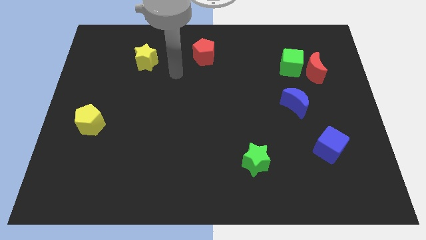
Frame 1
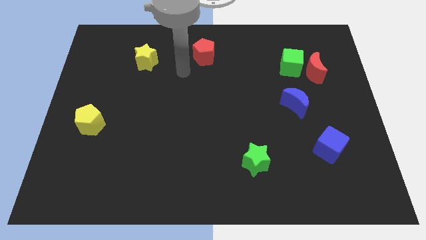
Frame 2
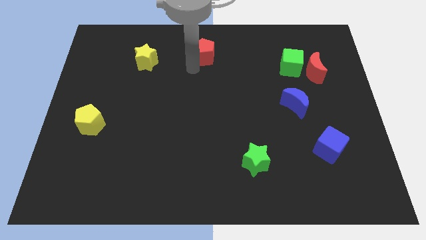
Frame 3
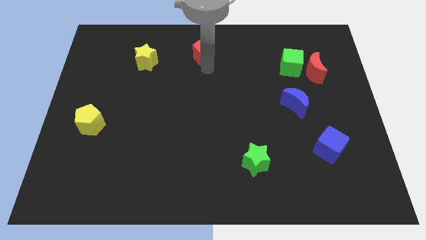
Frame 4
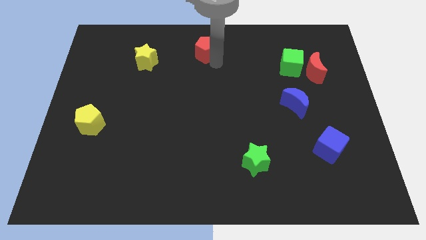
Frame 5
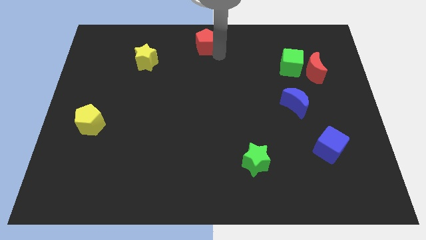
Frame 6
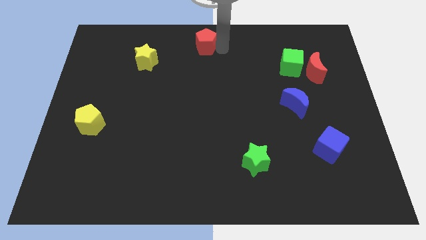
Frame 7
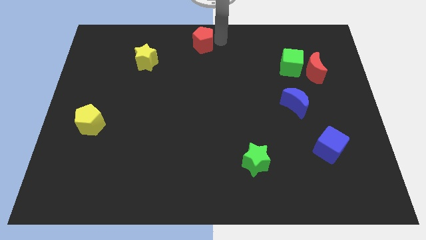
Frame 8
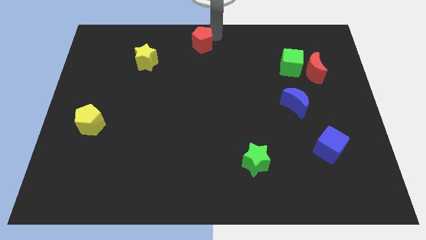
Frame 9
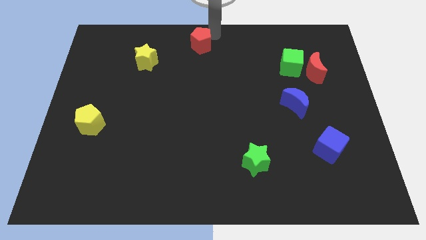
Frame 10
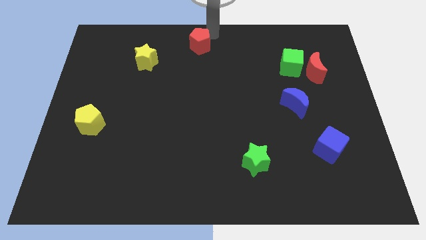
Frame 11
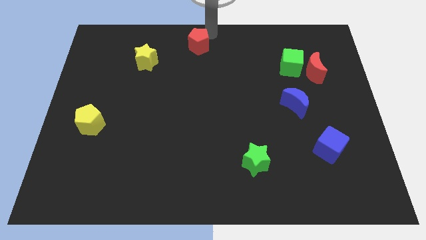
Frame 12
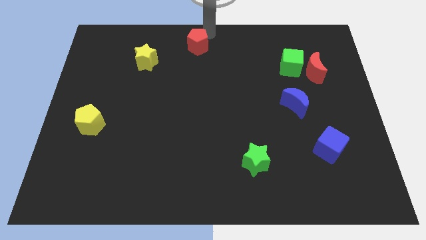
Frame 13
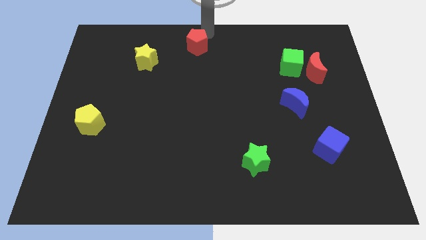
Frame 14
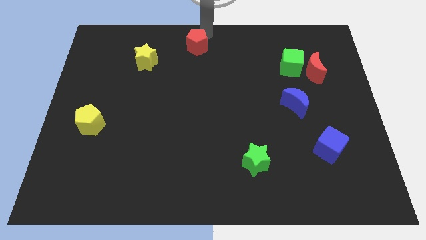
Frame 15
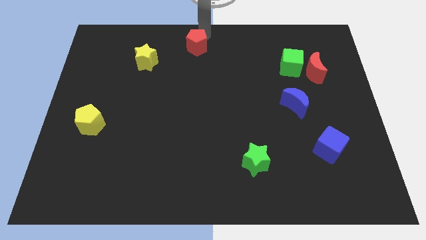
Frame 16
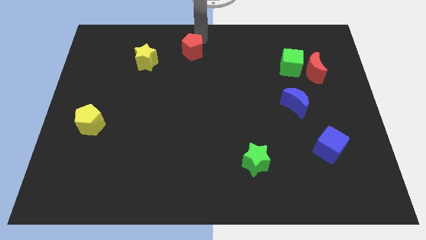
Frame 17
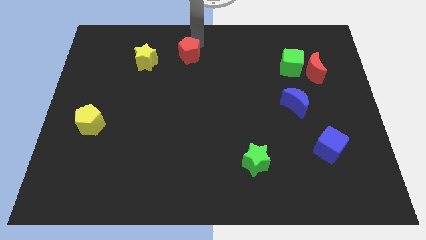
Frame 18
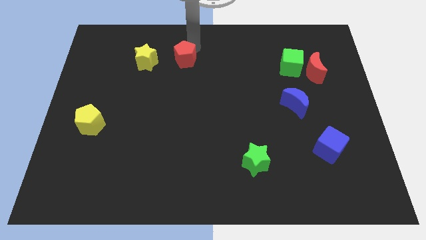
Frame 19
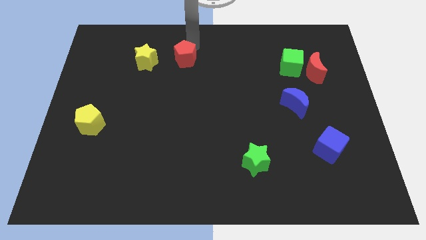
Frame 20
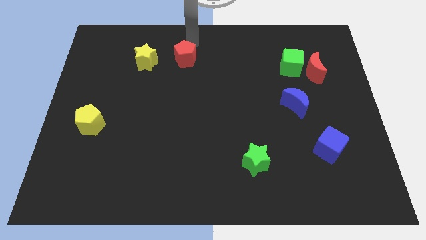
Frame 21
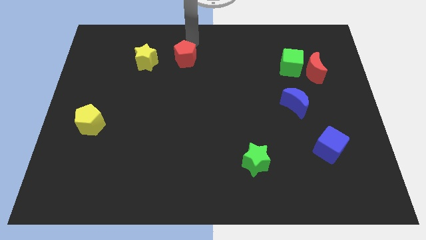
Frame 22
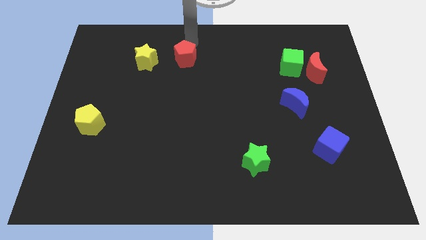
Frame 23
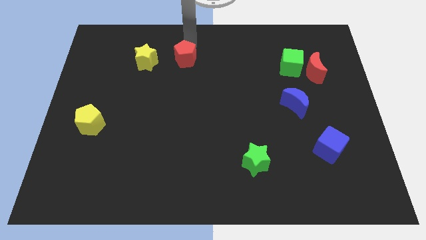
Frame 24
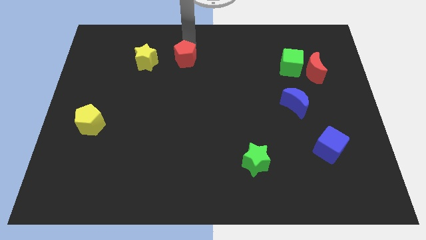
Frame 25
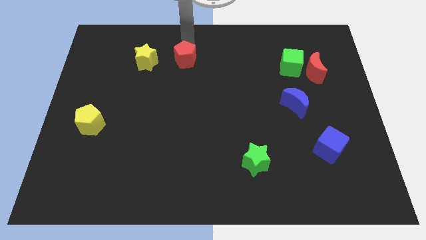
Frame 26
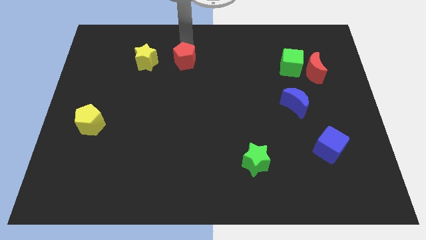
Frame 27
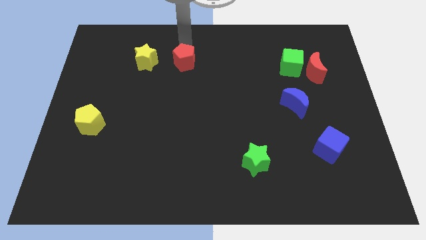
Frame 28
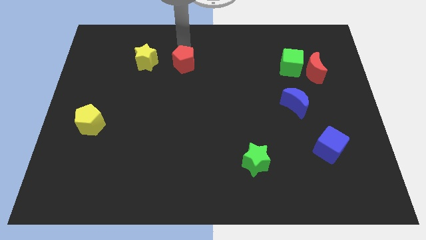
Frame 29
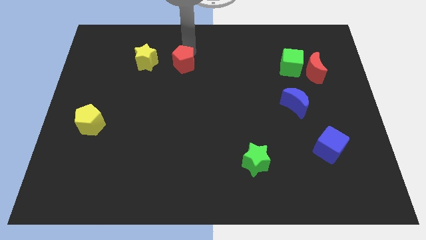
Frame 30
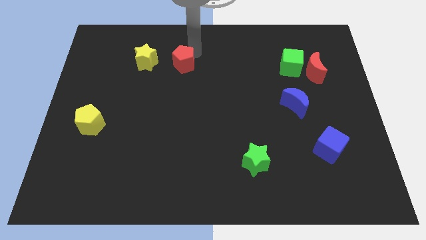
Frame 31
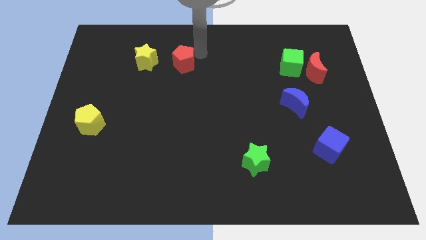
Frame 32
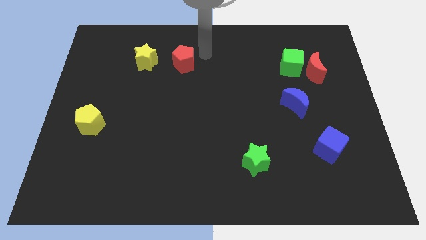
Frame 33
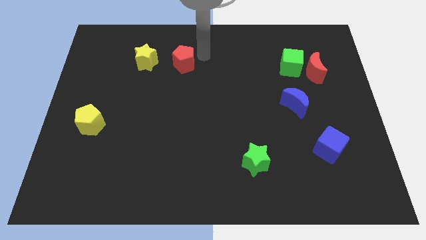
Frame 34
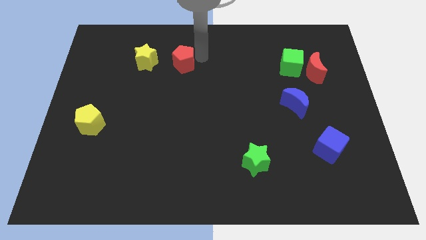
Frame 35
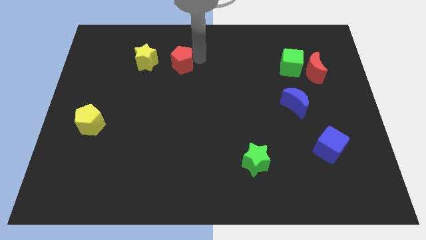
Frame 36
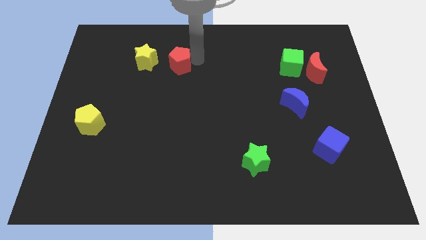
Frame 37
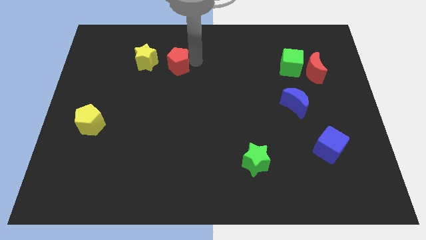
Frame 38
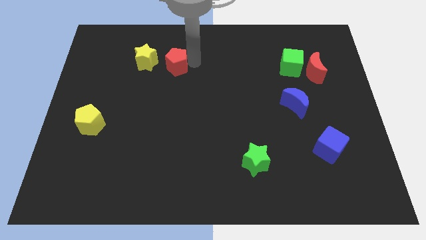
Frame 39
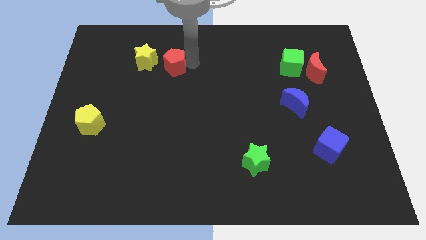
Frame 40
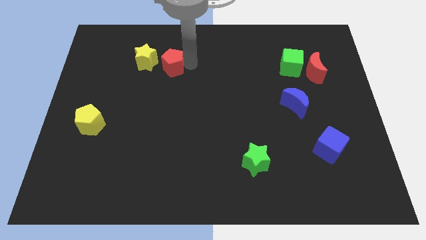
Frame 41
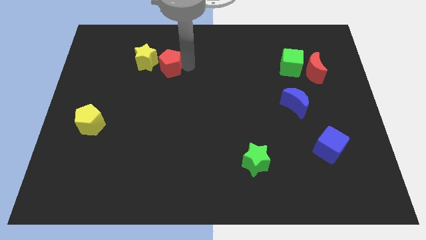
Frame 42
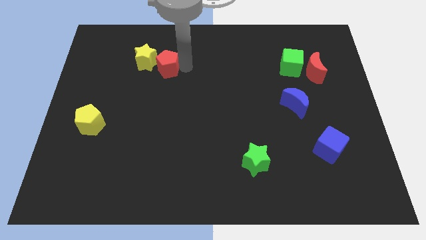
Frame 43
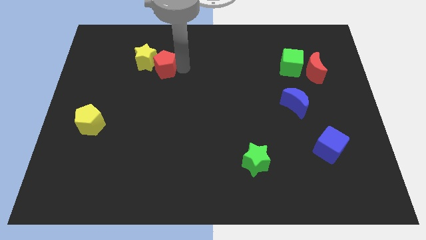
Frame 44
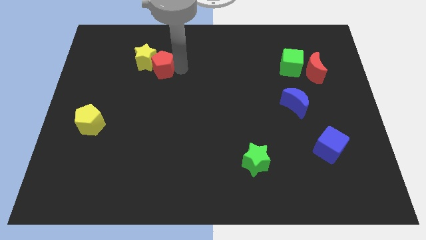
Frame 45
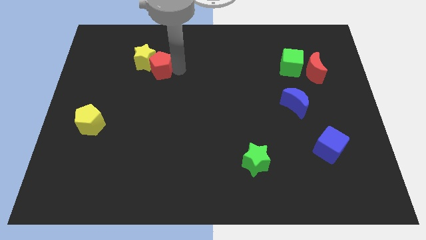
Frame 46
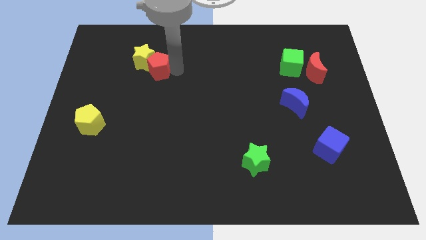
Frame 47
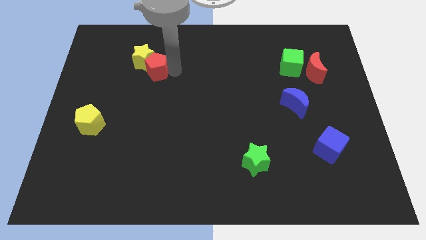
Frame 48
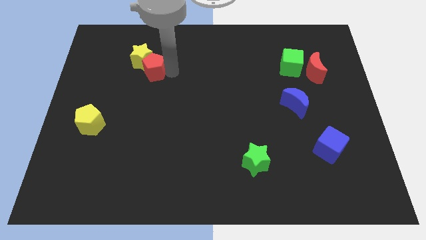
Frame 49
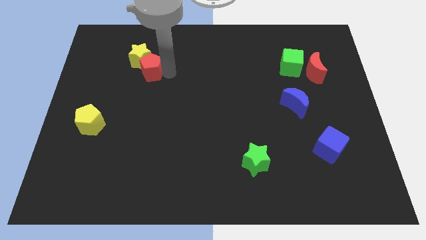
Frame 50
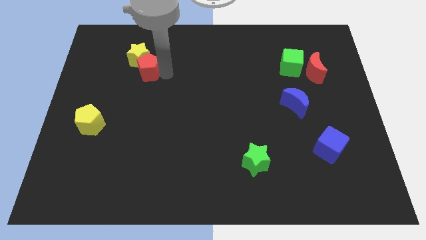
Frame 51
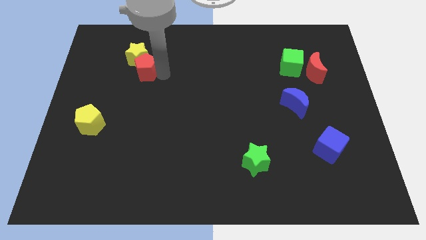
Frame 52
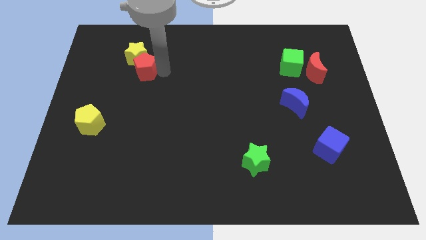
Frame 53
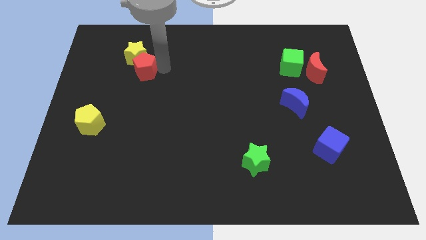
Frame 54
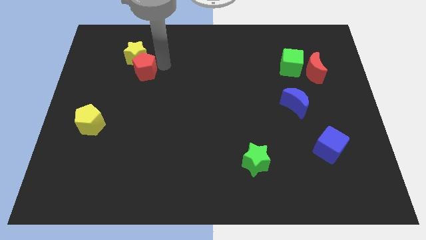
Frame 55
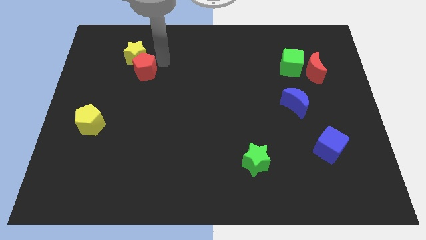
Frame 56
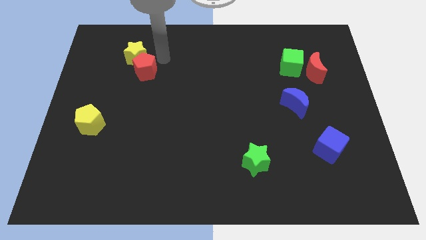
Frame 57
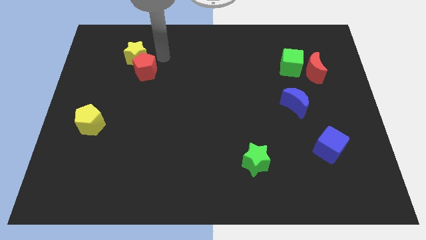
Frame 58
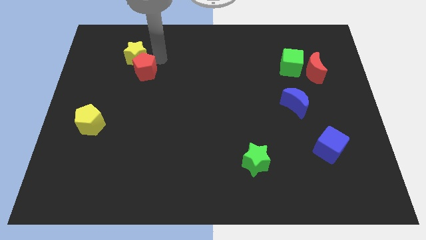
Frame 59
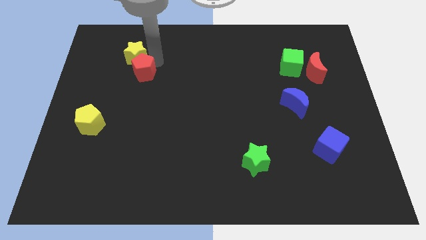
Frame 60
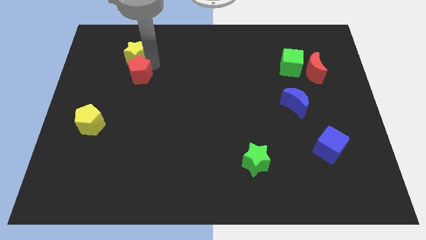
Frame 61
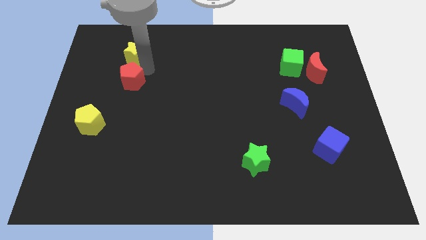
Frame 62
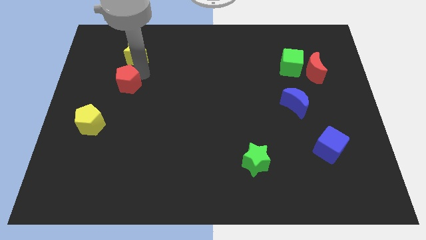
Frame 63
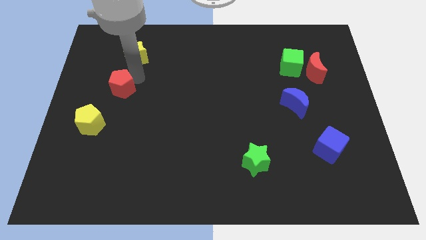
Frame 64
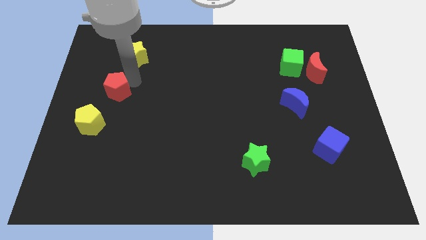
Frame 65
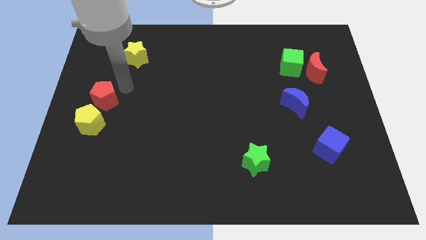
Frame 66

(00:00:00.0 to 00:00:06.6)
slide the red pentagon to the center left

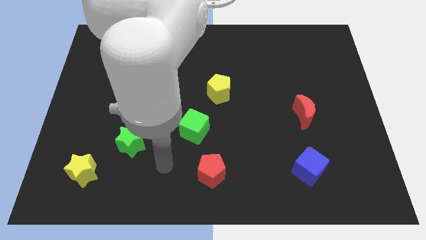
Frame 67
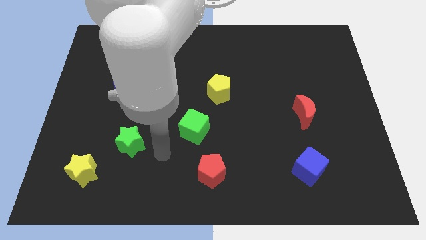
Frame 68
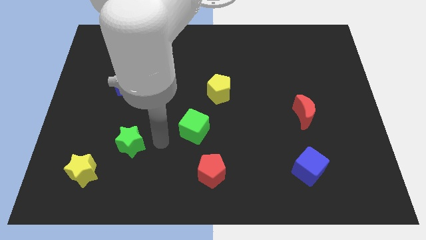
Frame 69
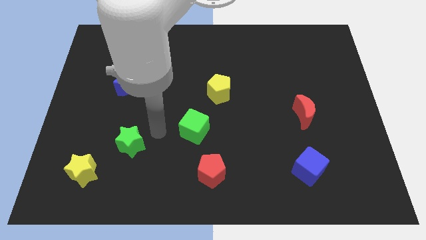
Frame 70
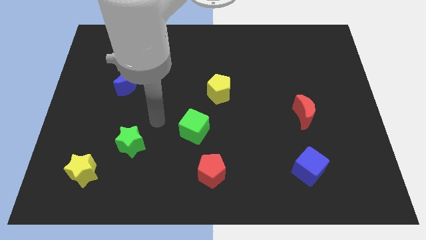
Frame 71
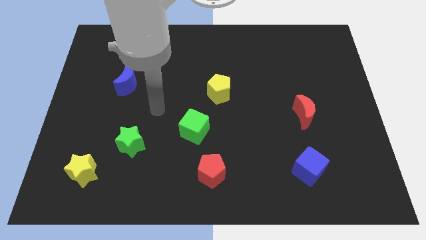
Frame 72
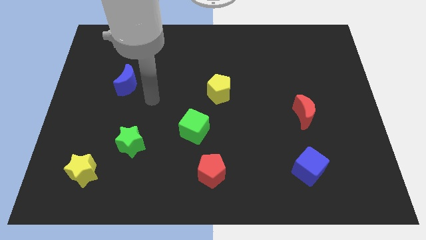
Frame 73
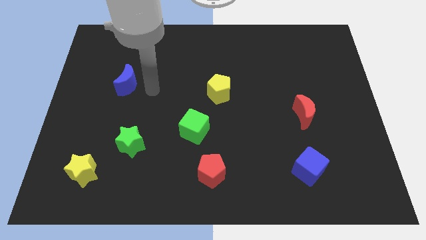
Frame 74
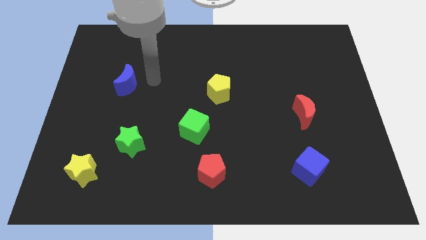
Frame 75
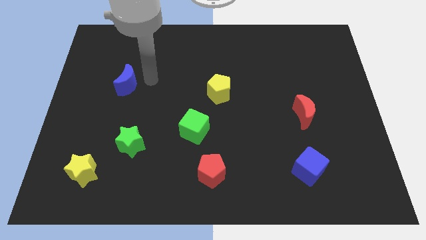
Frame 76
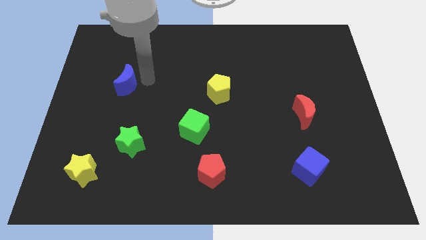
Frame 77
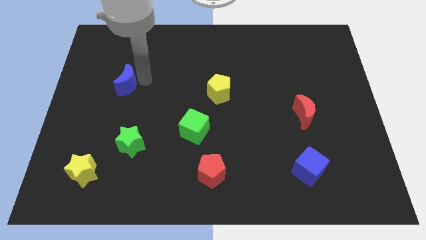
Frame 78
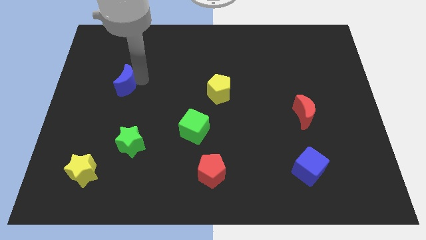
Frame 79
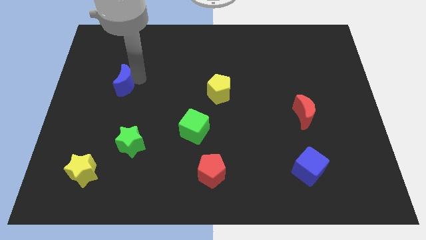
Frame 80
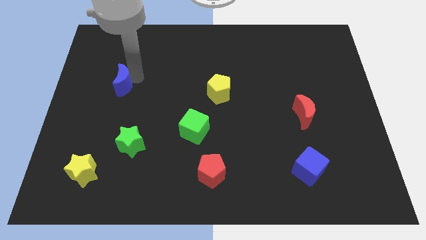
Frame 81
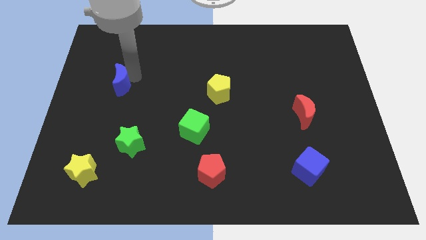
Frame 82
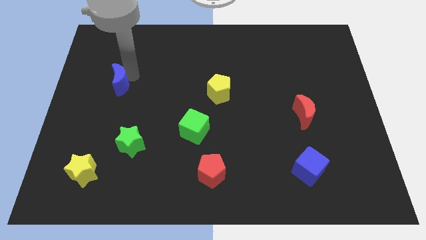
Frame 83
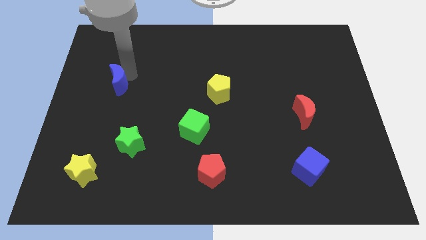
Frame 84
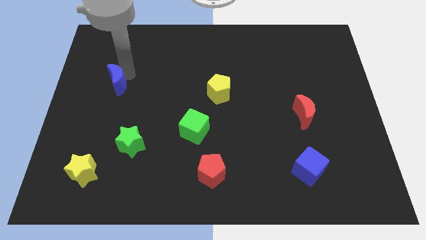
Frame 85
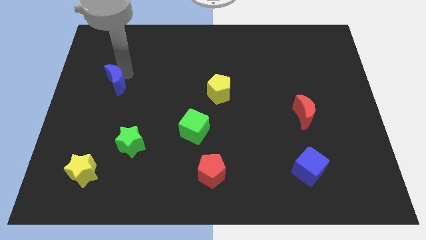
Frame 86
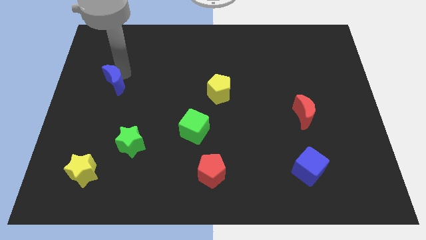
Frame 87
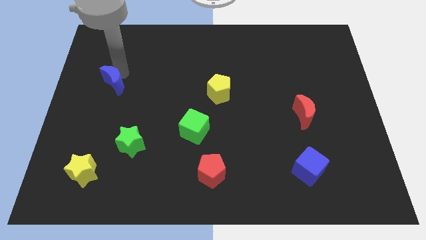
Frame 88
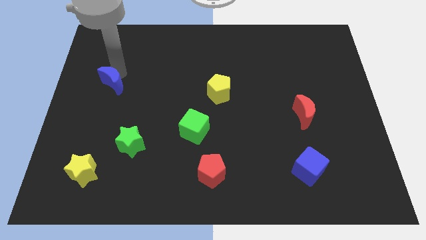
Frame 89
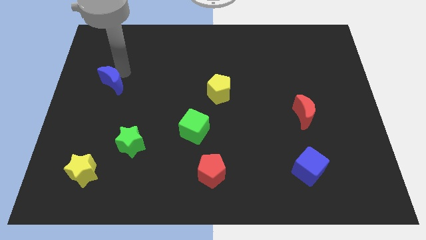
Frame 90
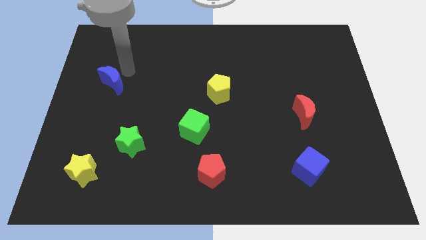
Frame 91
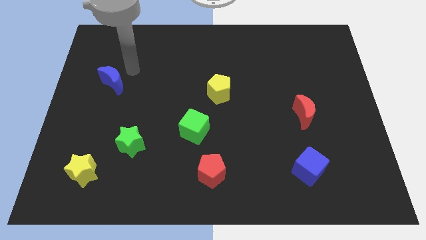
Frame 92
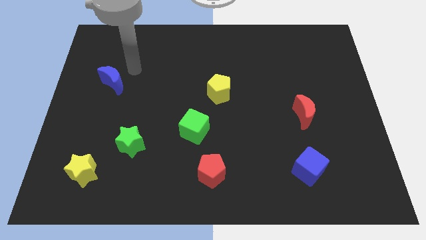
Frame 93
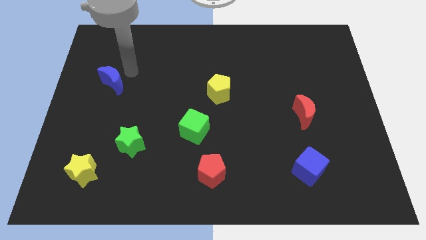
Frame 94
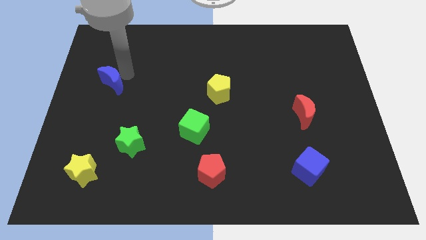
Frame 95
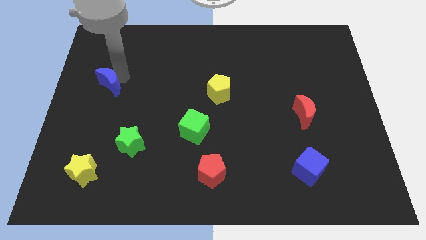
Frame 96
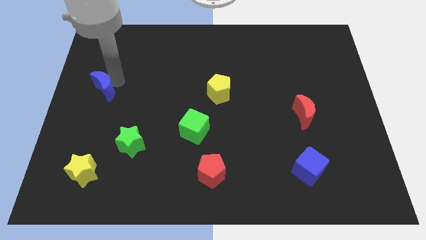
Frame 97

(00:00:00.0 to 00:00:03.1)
move the blue moon to the center left
